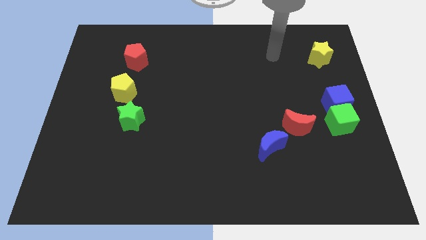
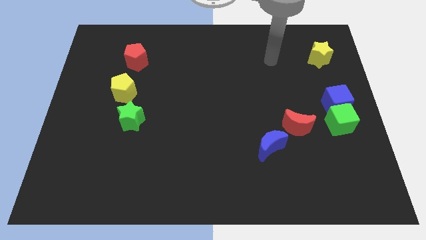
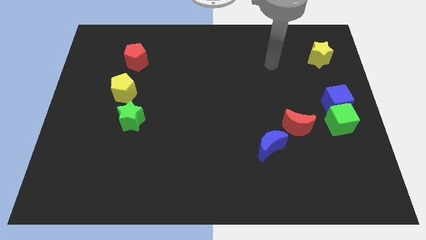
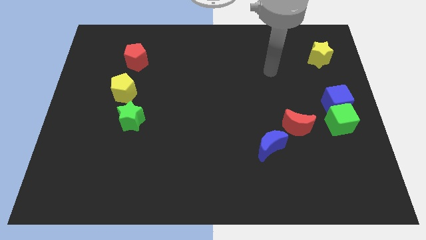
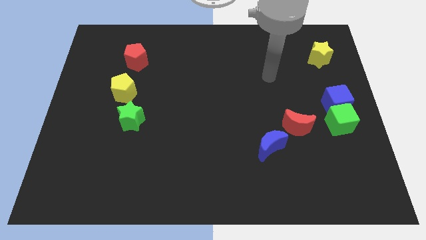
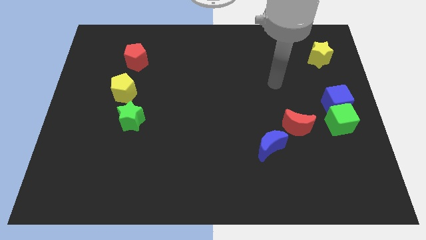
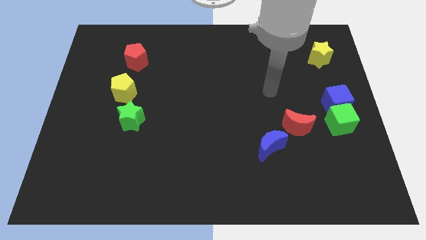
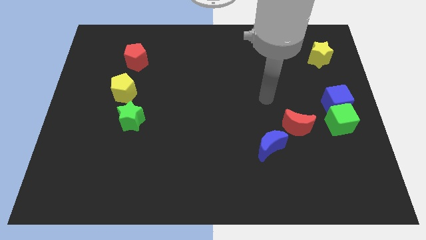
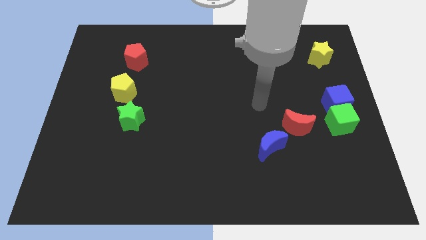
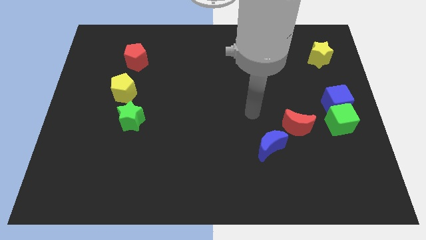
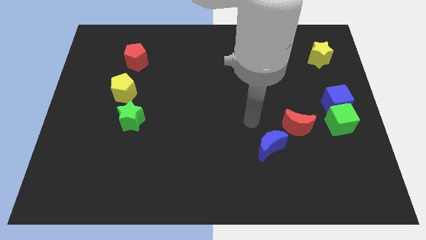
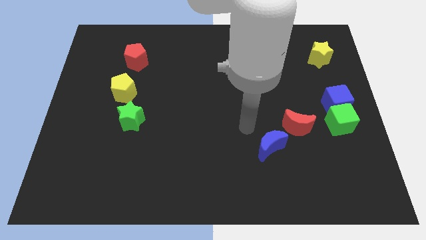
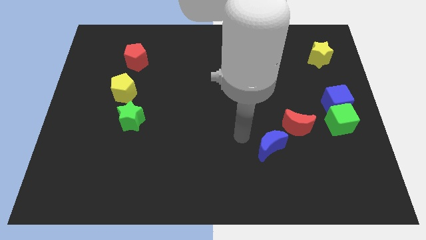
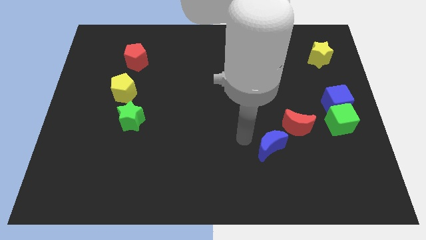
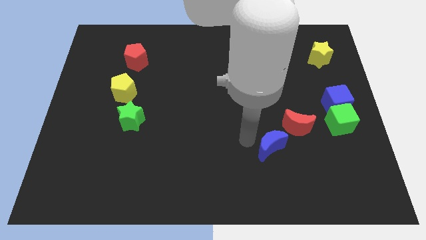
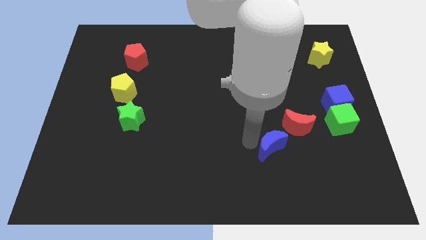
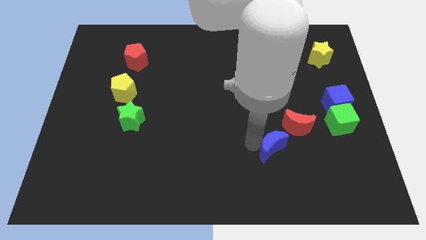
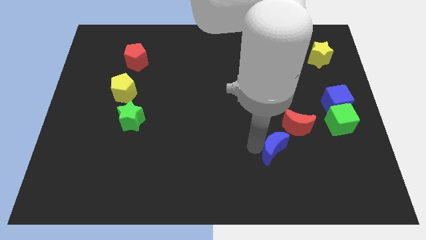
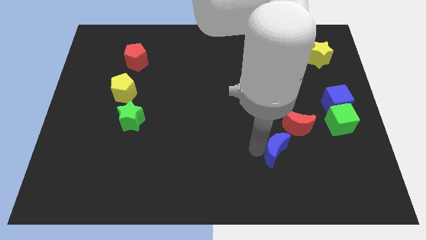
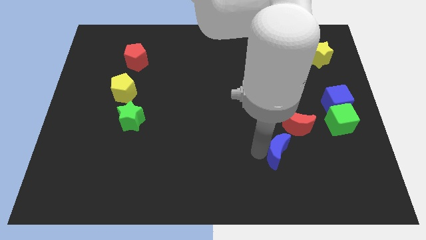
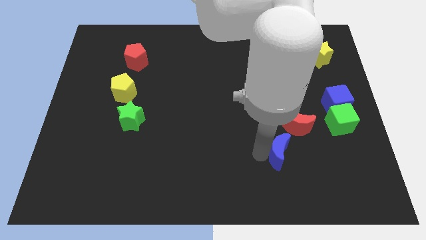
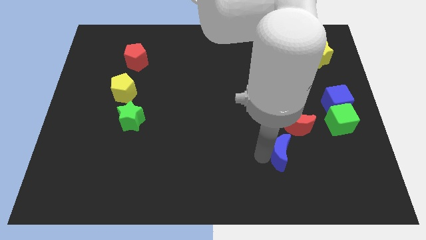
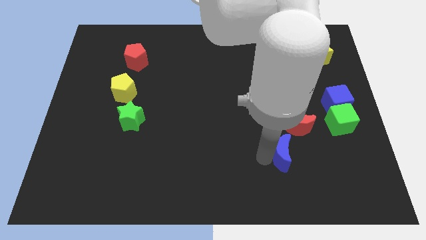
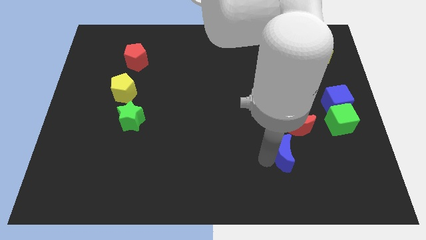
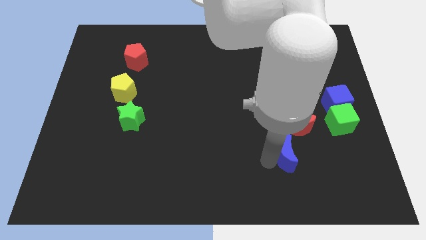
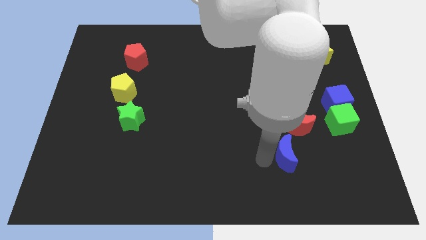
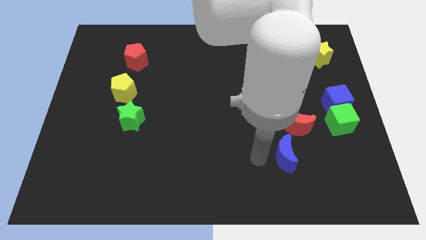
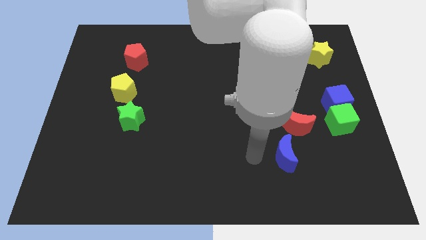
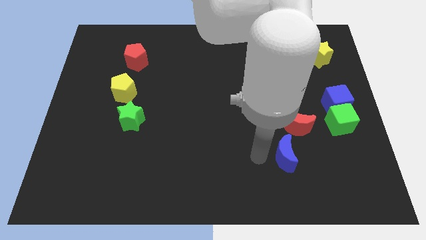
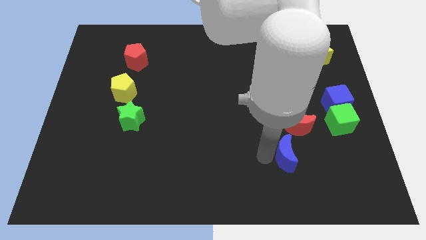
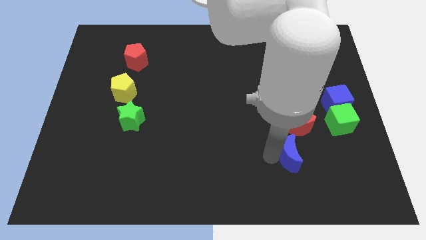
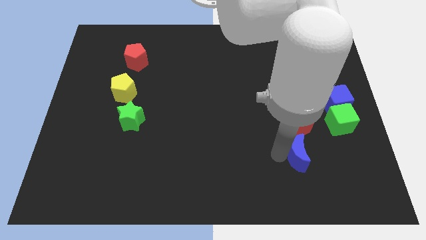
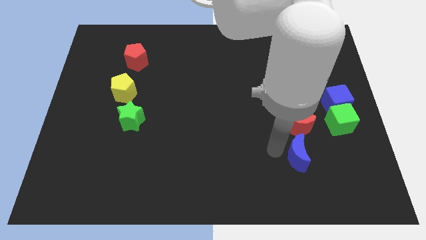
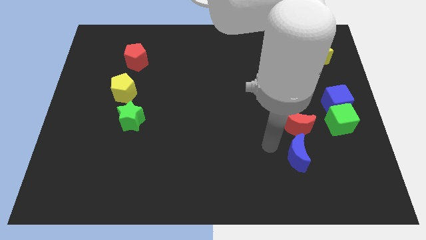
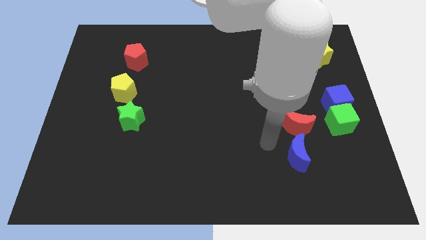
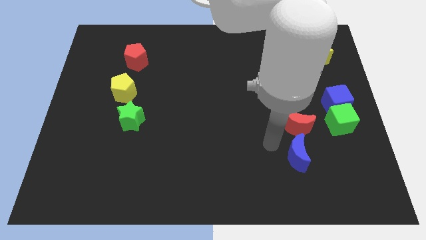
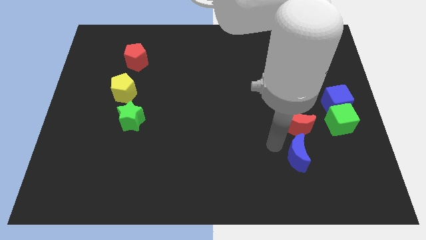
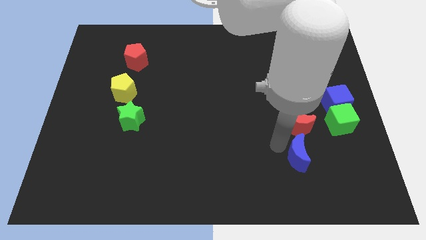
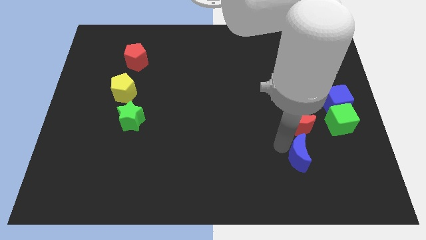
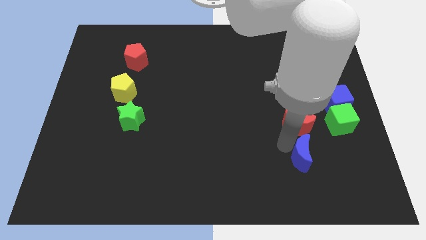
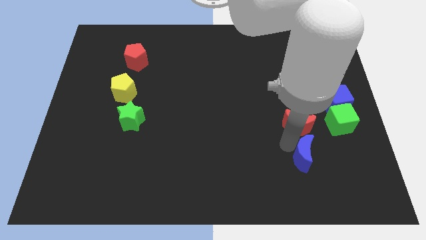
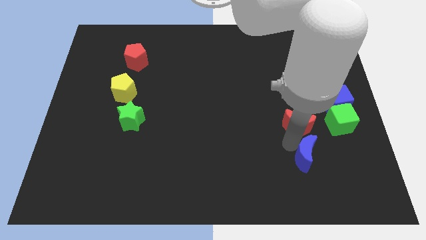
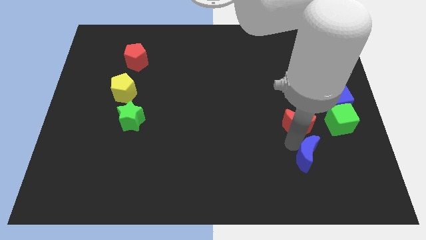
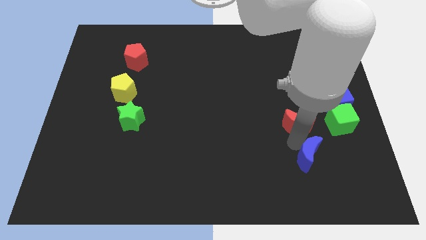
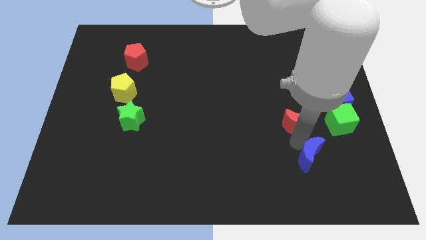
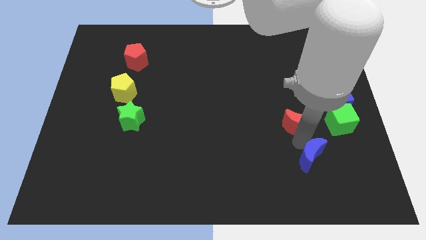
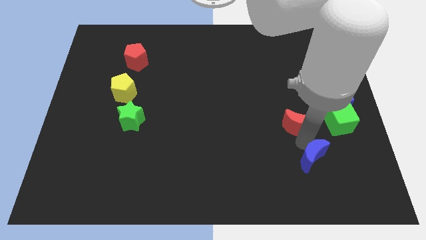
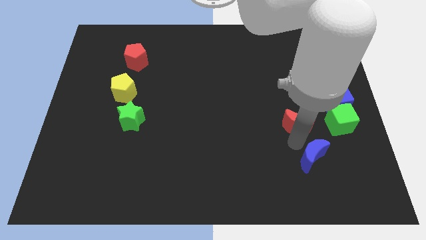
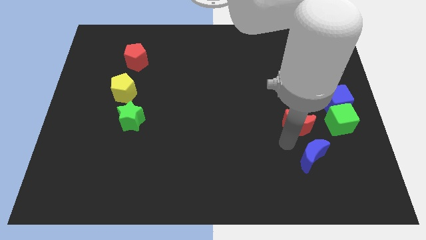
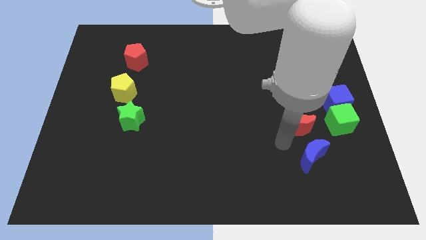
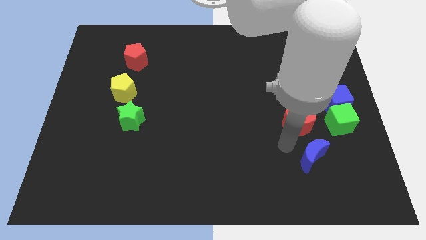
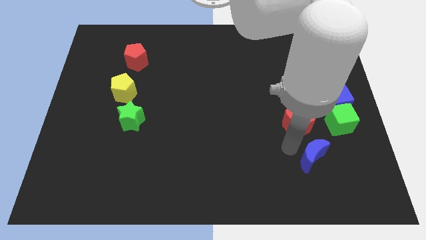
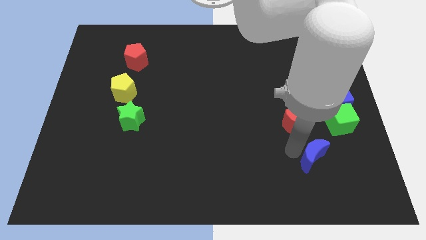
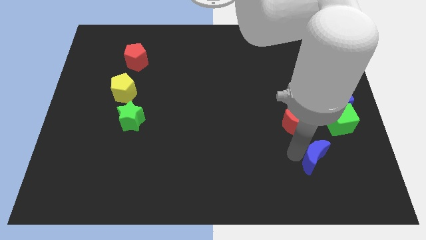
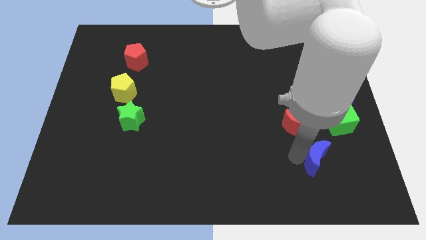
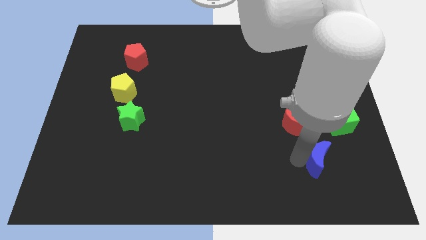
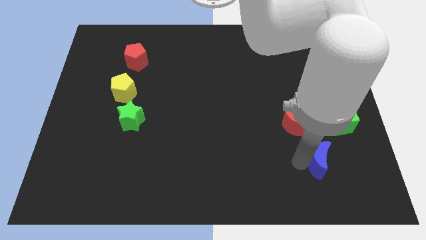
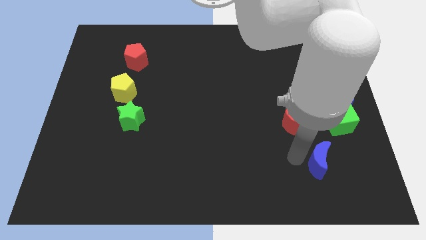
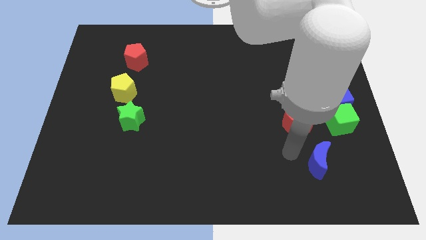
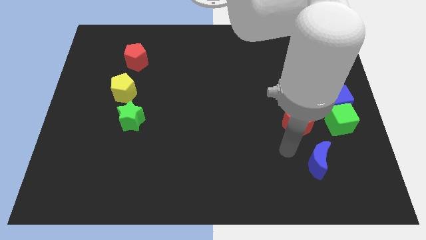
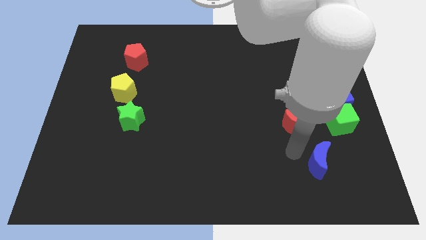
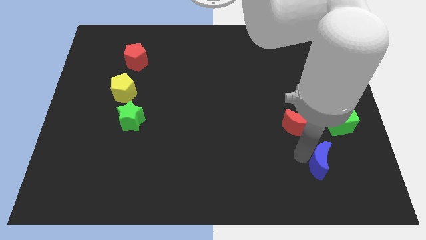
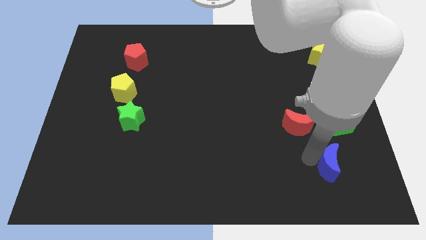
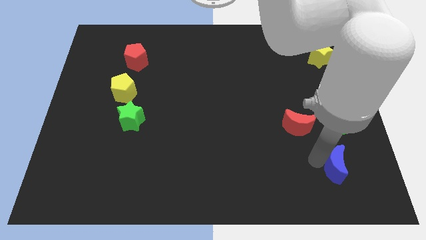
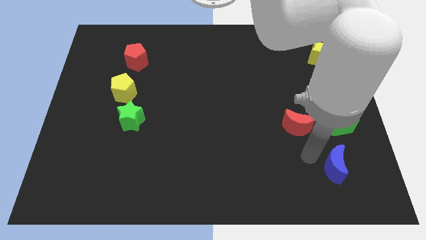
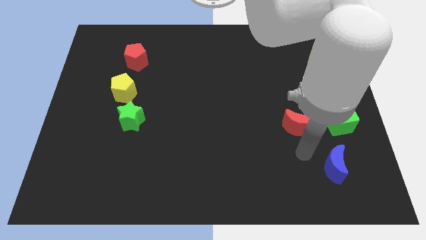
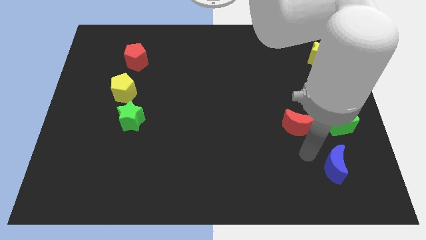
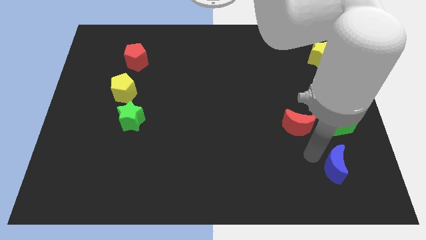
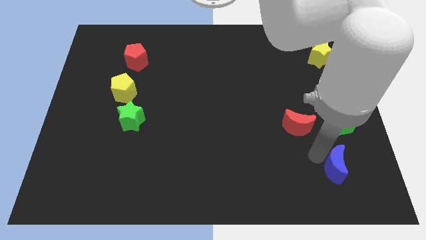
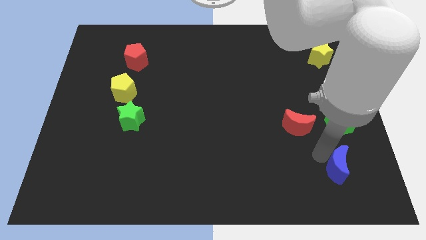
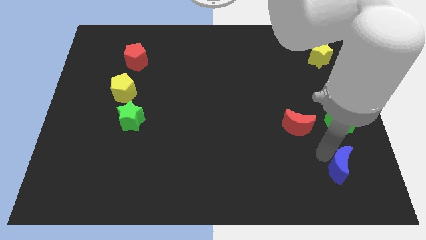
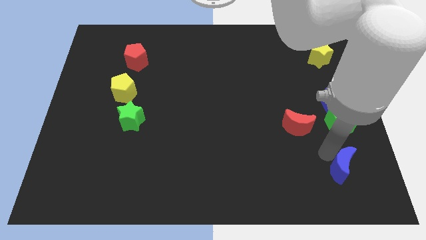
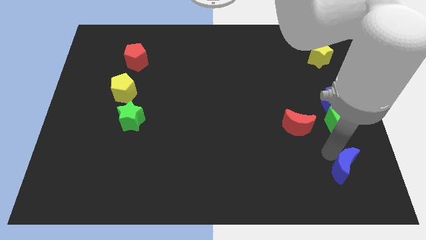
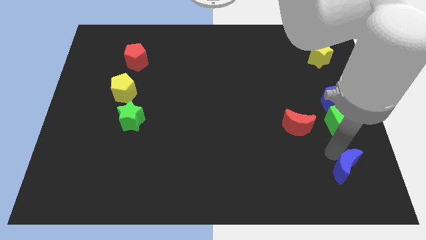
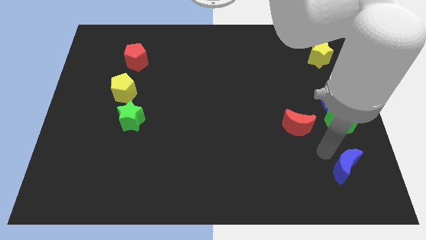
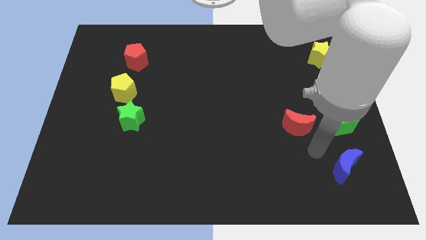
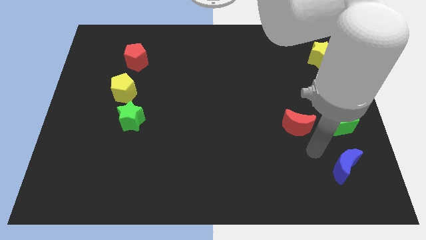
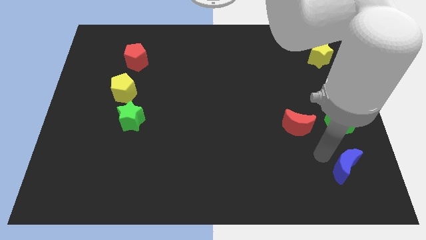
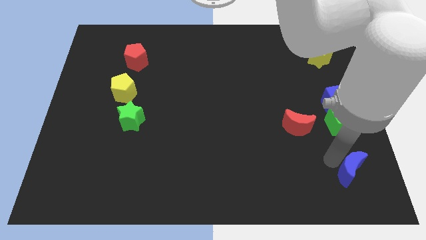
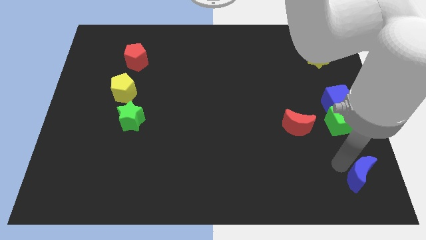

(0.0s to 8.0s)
push the blue moon to the bottom right corner
